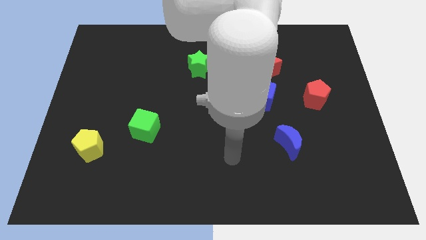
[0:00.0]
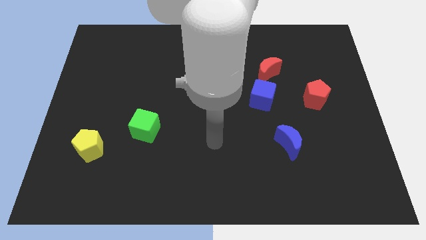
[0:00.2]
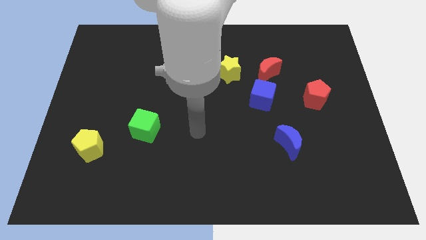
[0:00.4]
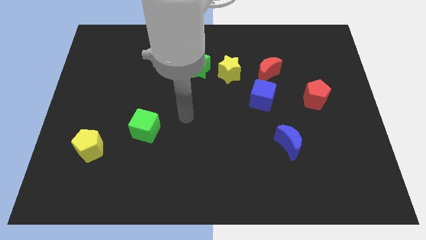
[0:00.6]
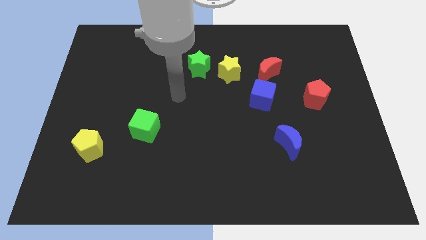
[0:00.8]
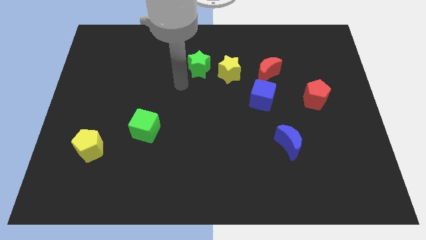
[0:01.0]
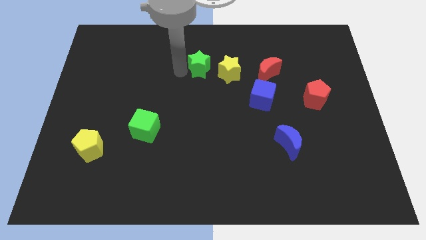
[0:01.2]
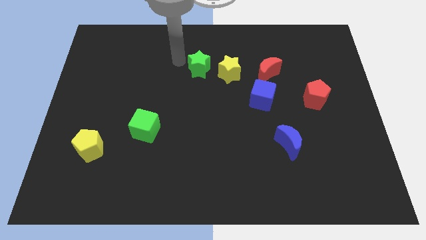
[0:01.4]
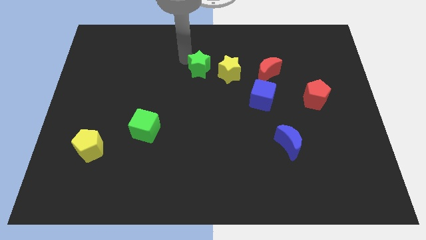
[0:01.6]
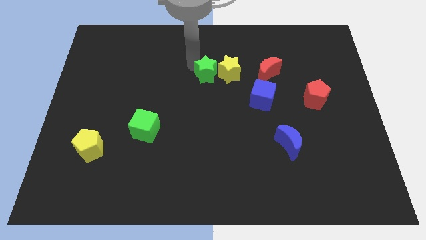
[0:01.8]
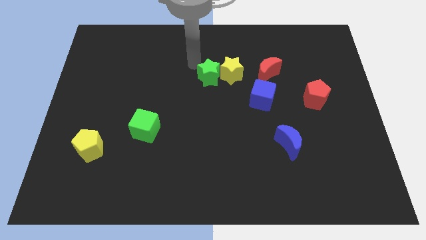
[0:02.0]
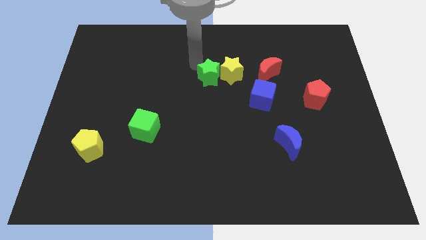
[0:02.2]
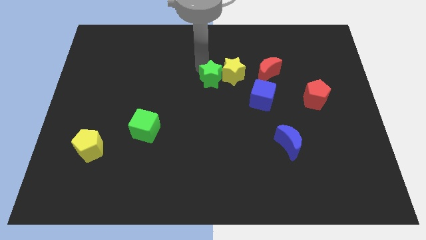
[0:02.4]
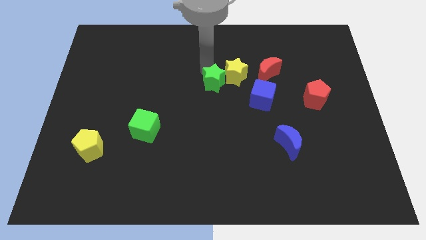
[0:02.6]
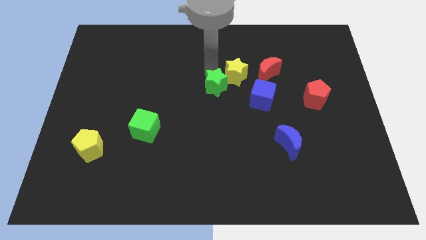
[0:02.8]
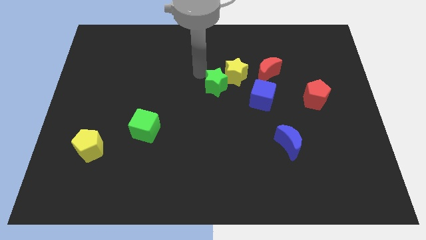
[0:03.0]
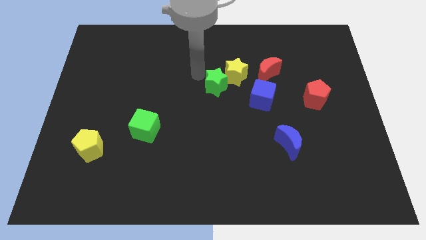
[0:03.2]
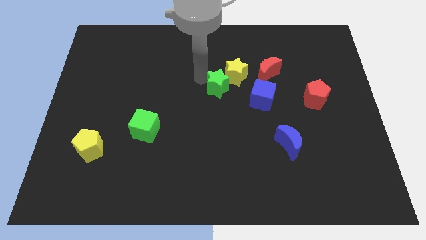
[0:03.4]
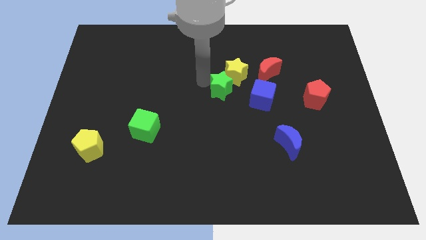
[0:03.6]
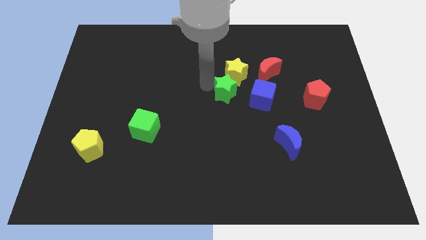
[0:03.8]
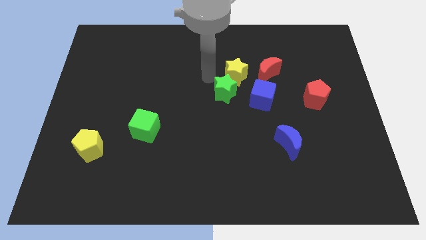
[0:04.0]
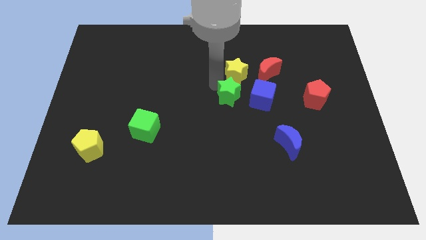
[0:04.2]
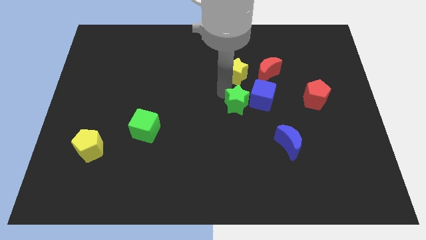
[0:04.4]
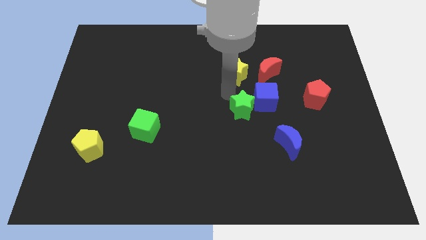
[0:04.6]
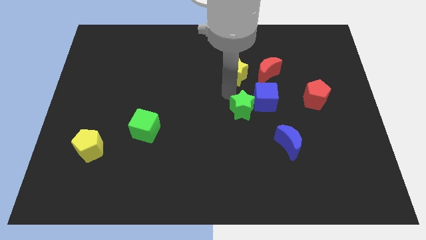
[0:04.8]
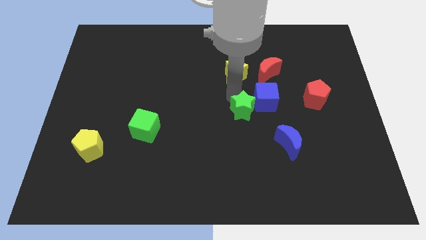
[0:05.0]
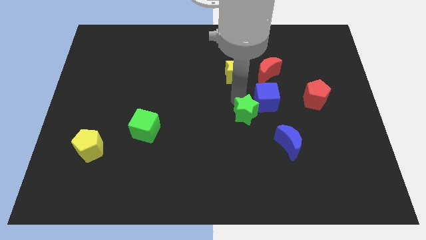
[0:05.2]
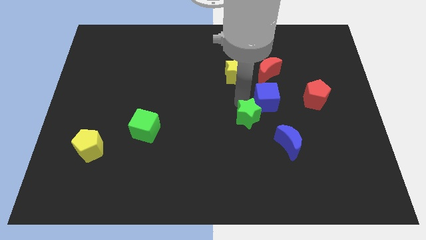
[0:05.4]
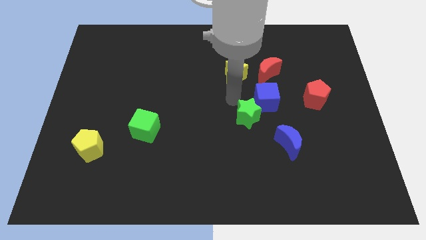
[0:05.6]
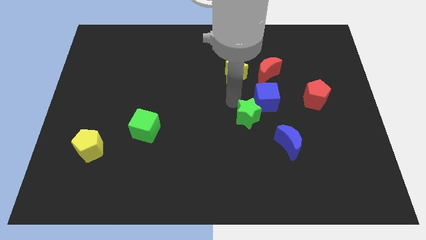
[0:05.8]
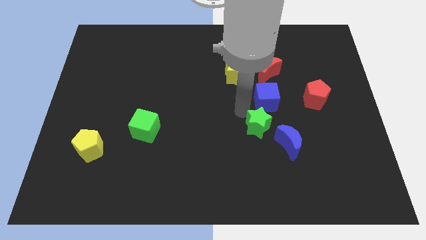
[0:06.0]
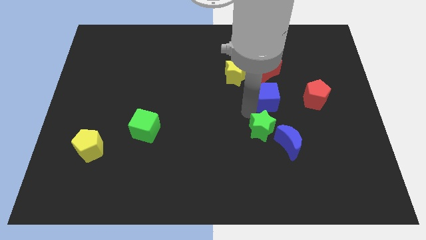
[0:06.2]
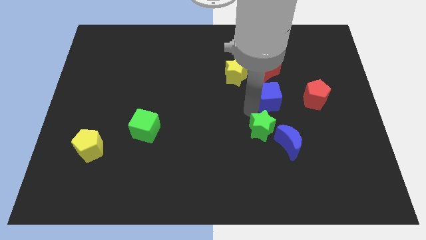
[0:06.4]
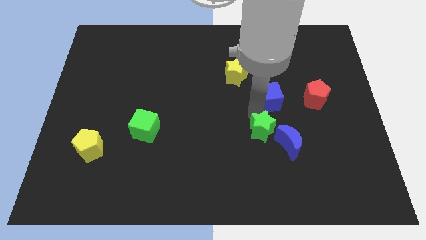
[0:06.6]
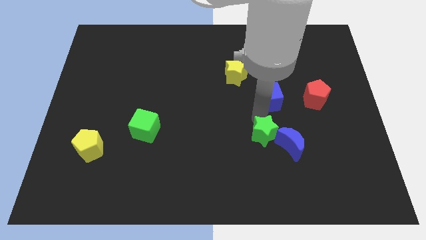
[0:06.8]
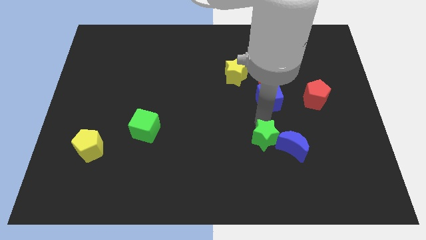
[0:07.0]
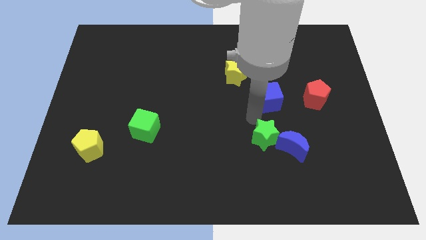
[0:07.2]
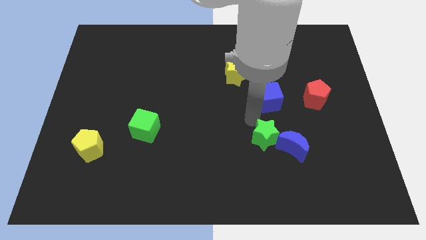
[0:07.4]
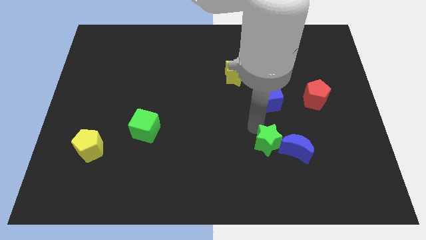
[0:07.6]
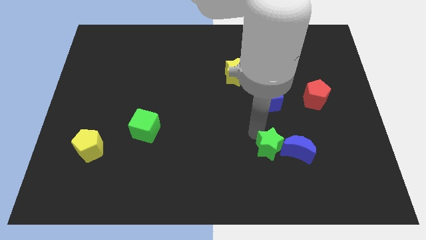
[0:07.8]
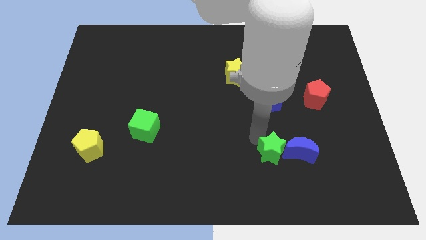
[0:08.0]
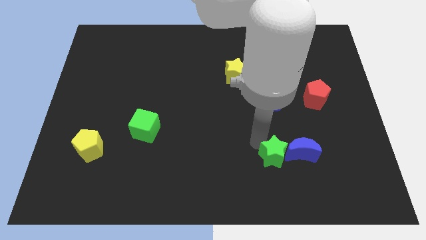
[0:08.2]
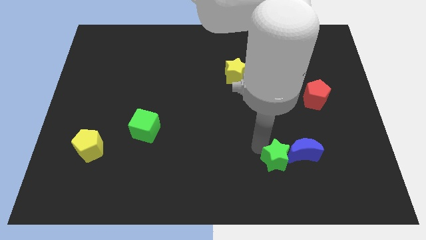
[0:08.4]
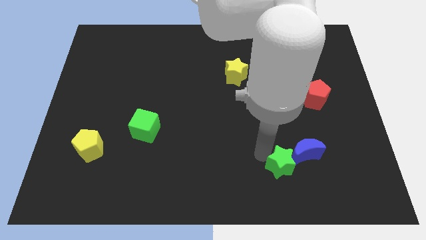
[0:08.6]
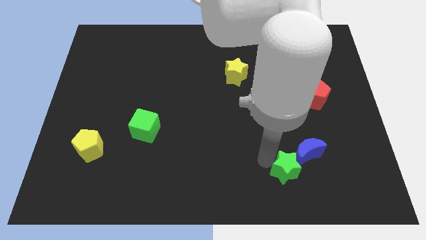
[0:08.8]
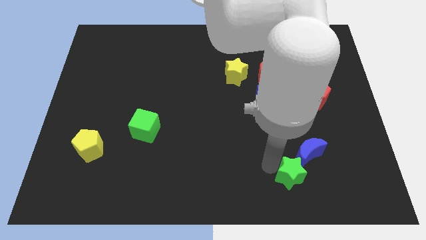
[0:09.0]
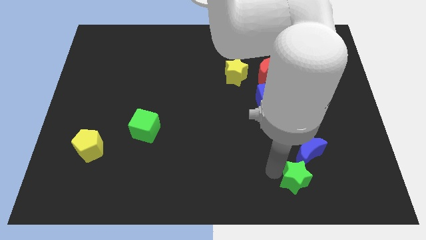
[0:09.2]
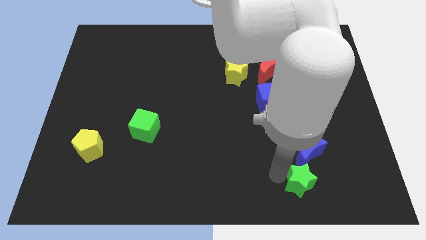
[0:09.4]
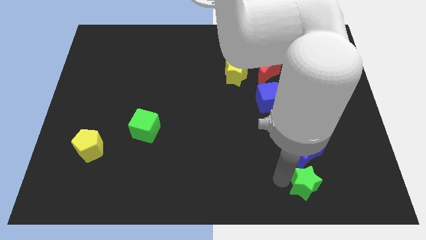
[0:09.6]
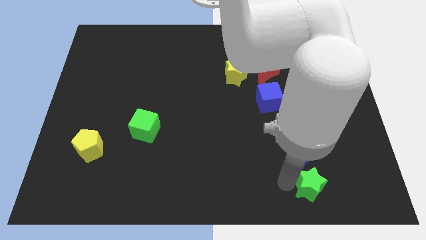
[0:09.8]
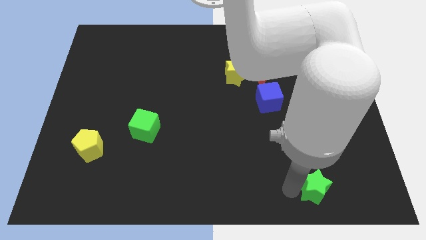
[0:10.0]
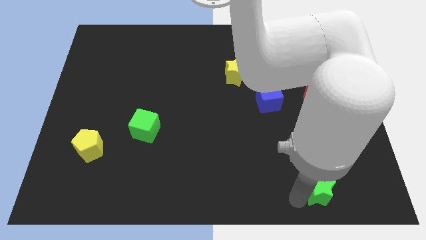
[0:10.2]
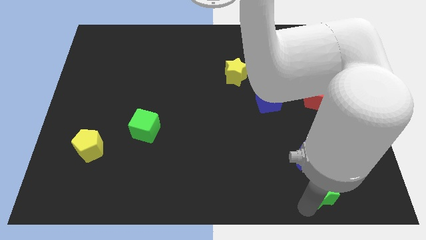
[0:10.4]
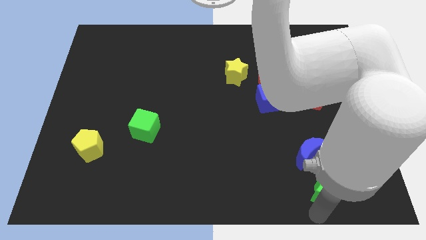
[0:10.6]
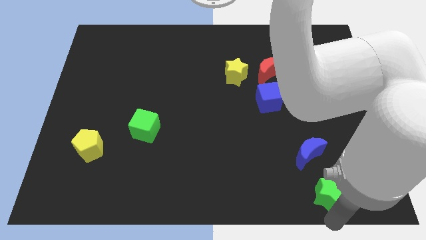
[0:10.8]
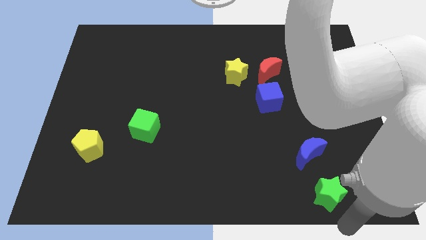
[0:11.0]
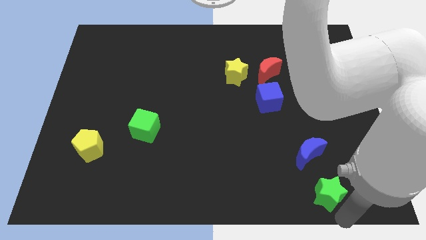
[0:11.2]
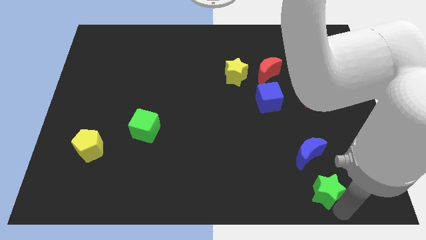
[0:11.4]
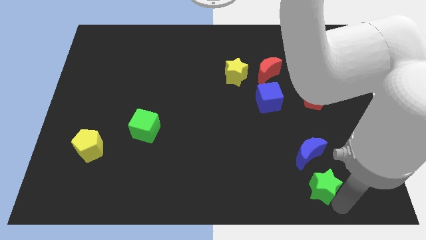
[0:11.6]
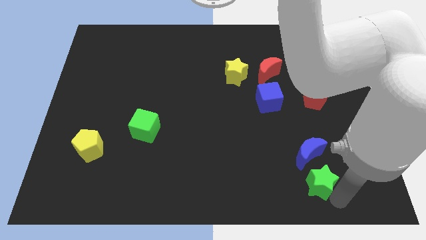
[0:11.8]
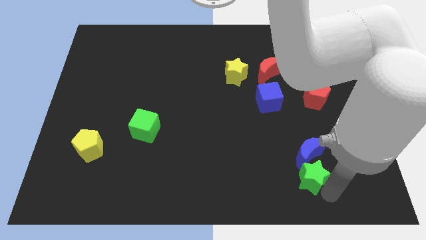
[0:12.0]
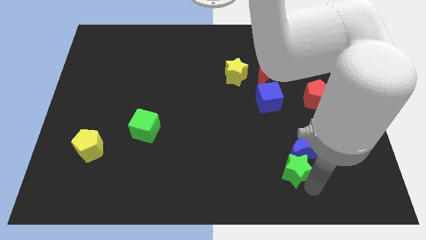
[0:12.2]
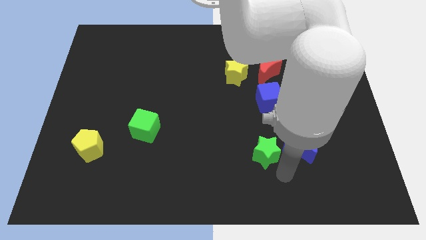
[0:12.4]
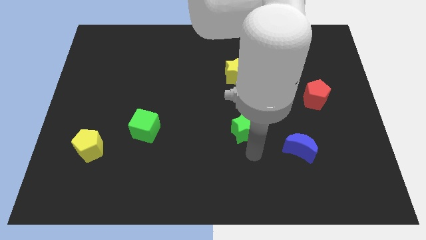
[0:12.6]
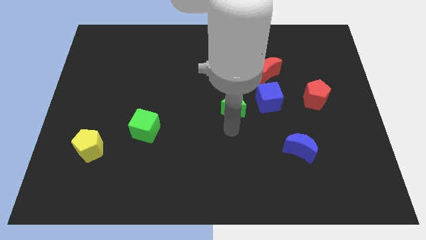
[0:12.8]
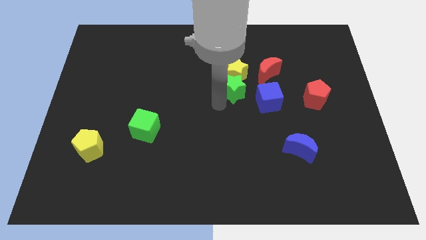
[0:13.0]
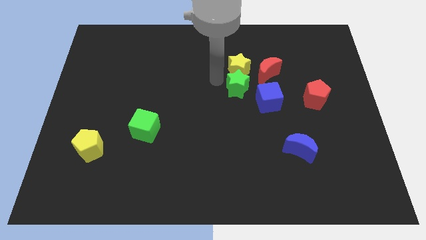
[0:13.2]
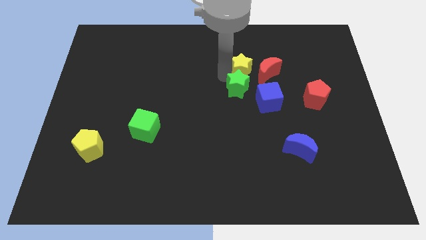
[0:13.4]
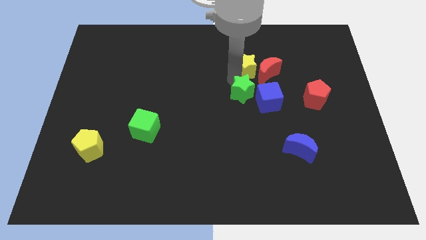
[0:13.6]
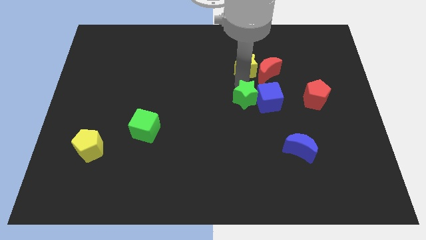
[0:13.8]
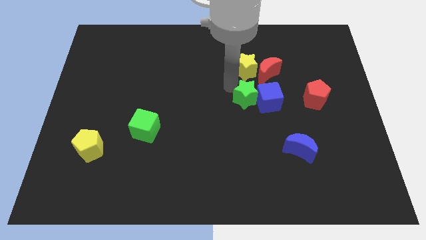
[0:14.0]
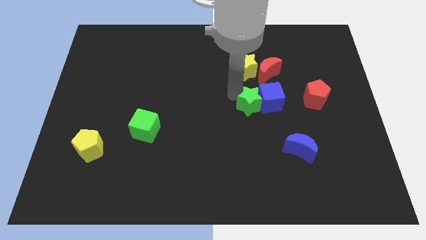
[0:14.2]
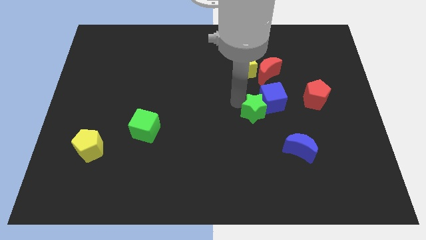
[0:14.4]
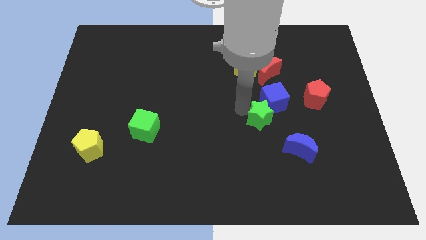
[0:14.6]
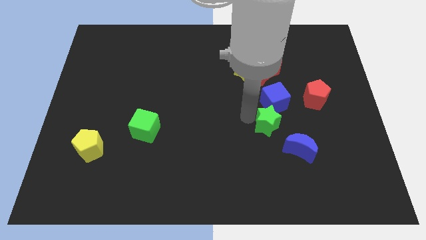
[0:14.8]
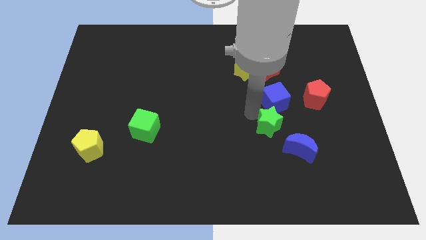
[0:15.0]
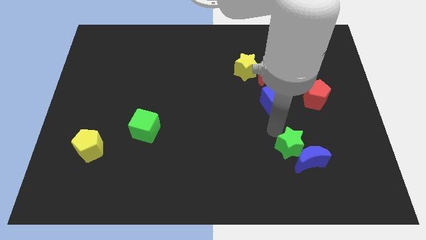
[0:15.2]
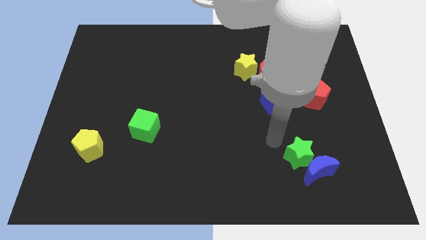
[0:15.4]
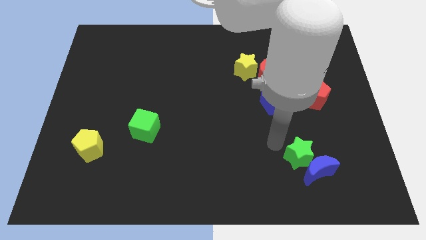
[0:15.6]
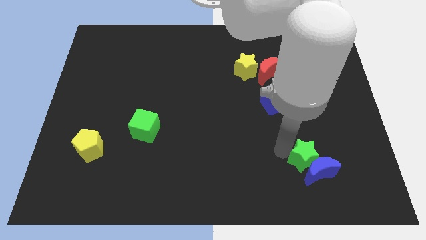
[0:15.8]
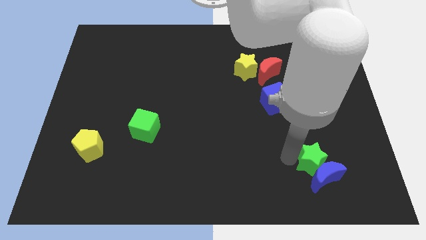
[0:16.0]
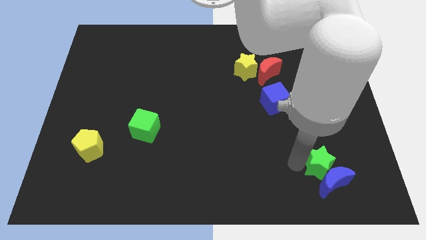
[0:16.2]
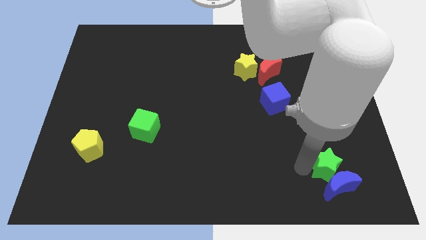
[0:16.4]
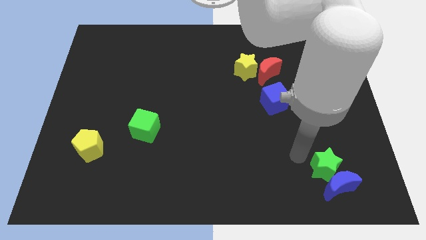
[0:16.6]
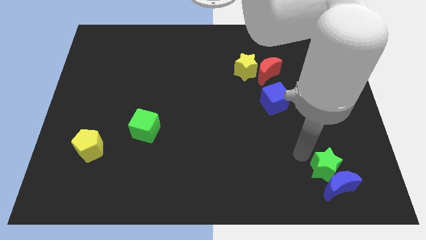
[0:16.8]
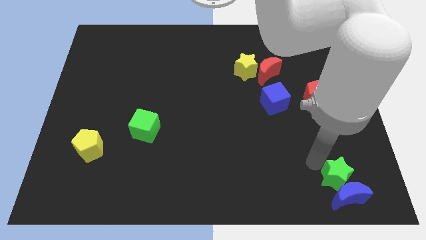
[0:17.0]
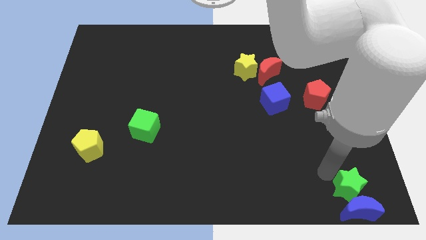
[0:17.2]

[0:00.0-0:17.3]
slide the green star to the bottom right
